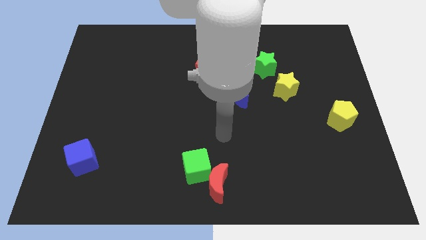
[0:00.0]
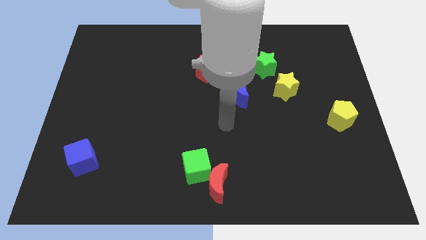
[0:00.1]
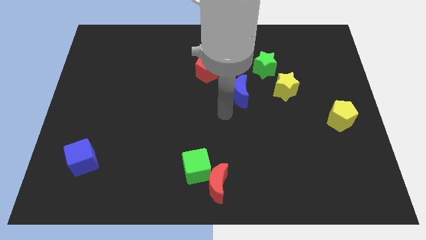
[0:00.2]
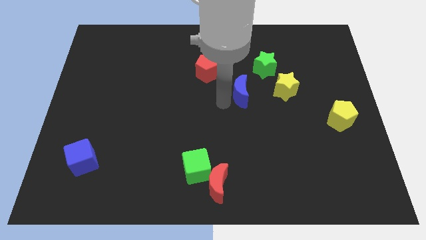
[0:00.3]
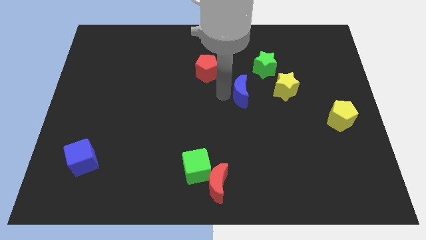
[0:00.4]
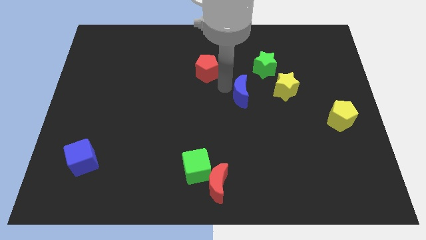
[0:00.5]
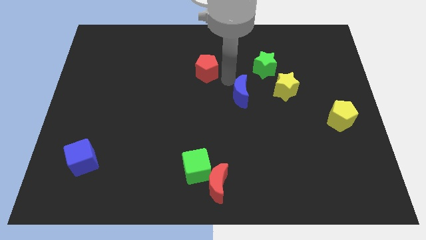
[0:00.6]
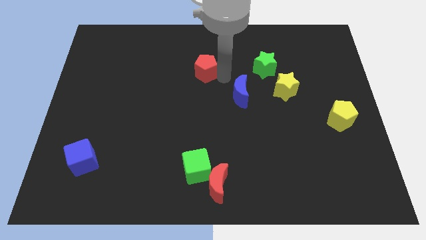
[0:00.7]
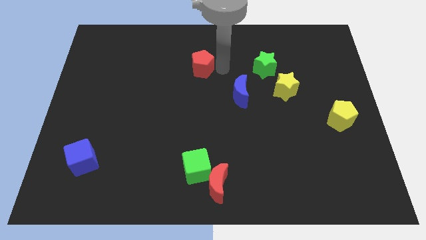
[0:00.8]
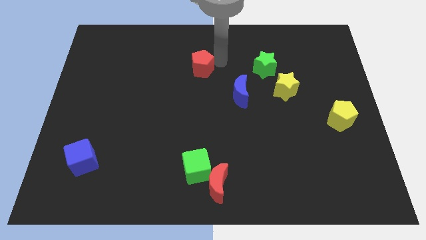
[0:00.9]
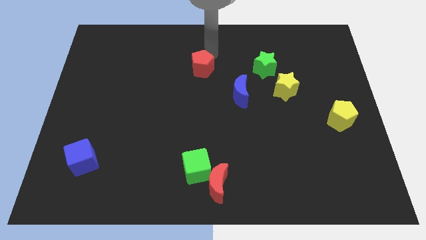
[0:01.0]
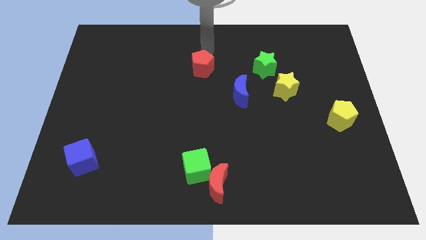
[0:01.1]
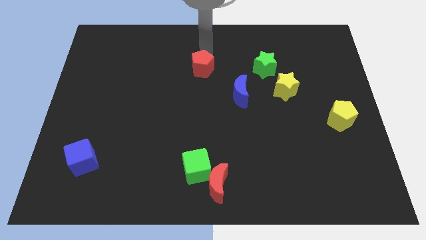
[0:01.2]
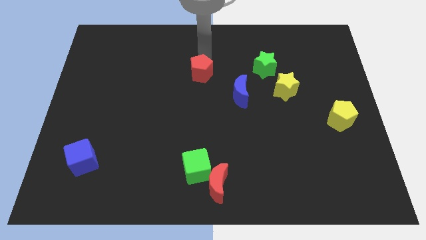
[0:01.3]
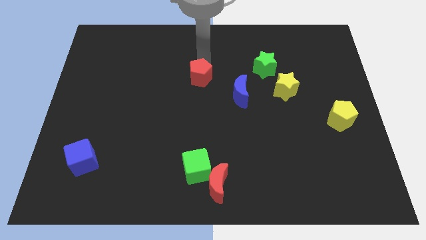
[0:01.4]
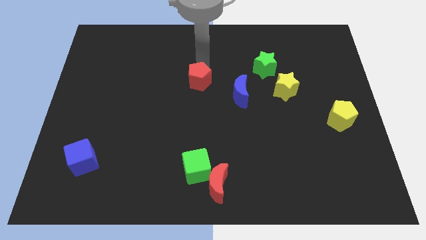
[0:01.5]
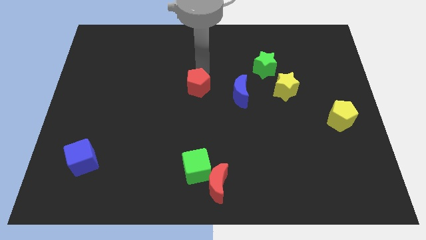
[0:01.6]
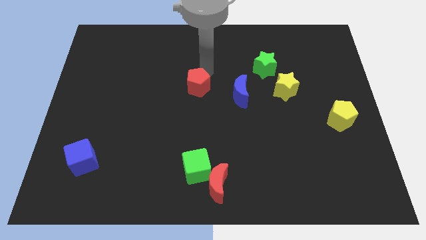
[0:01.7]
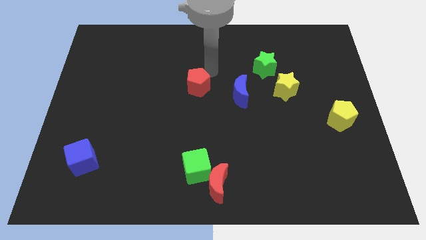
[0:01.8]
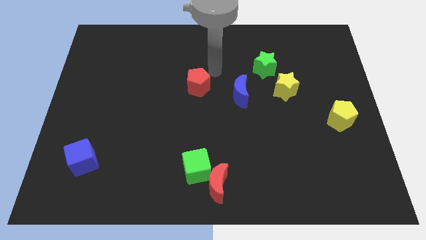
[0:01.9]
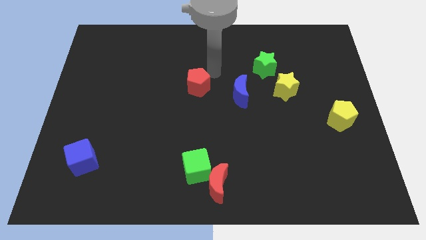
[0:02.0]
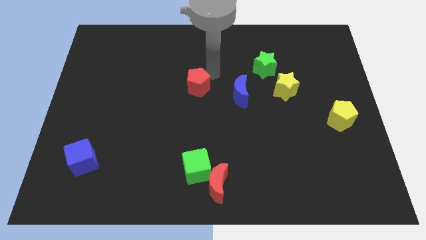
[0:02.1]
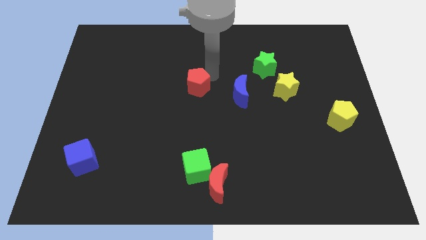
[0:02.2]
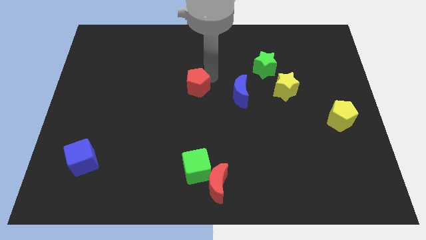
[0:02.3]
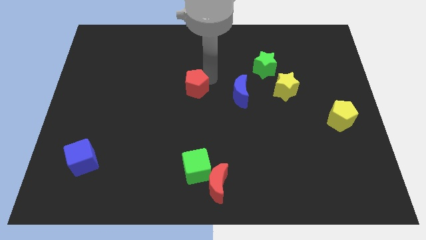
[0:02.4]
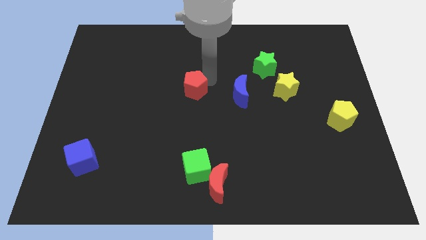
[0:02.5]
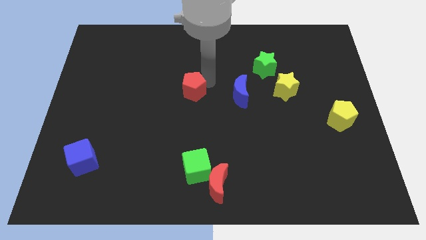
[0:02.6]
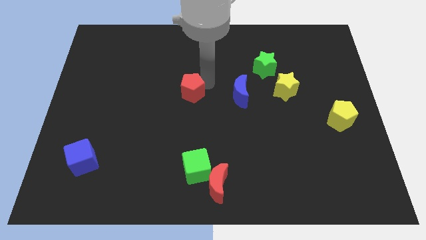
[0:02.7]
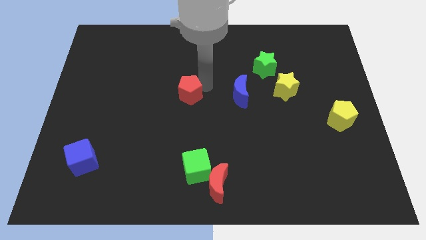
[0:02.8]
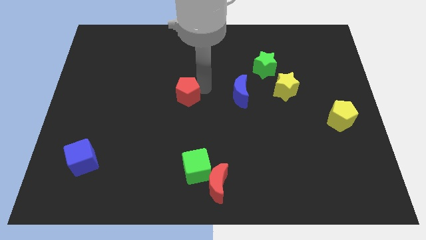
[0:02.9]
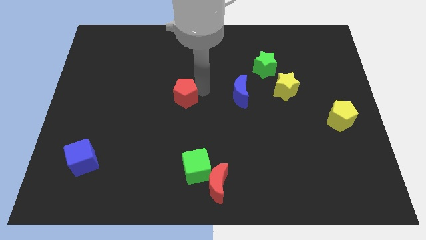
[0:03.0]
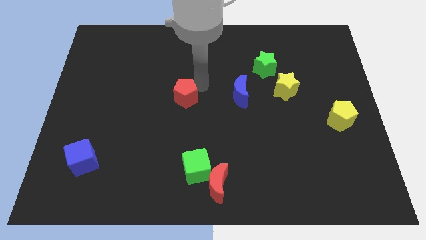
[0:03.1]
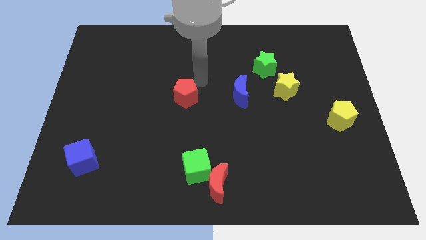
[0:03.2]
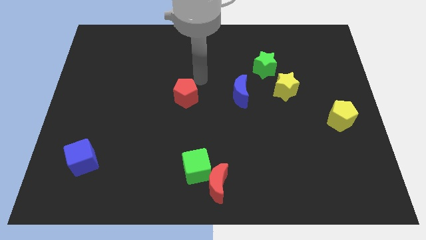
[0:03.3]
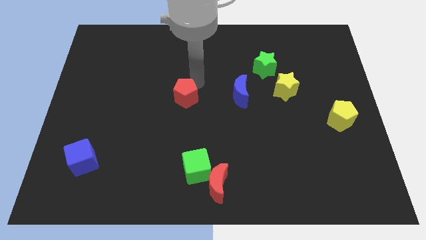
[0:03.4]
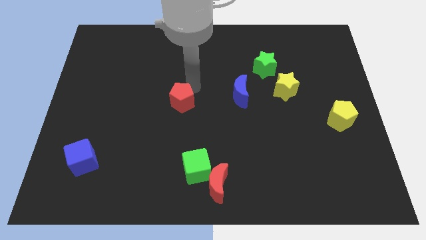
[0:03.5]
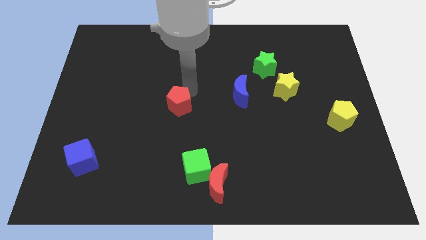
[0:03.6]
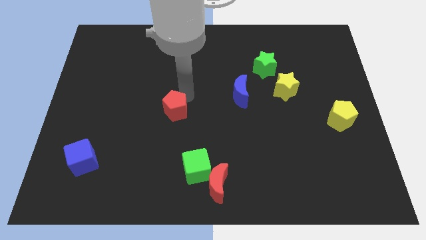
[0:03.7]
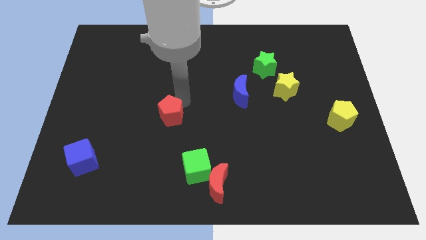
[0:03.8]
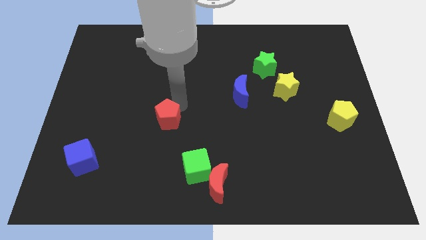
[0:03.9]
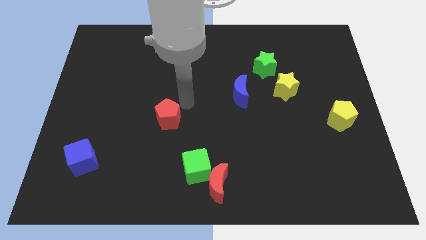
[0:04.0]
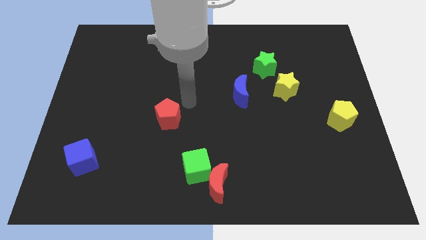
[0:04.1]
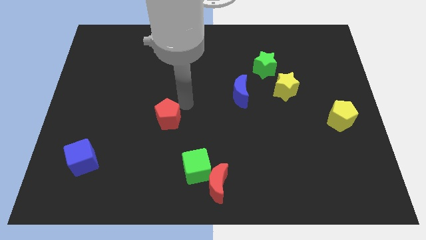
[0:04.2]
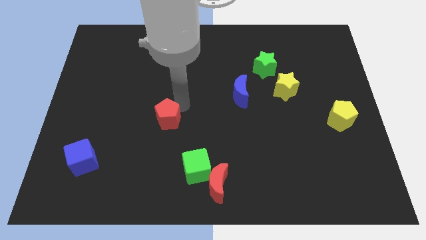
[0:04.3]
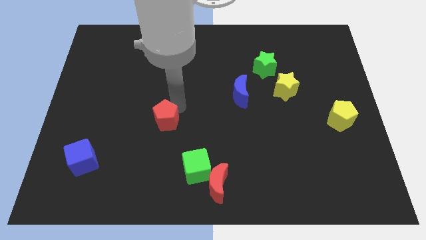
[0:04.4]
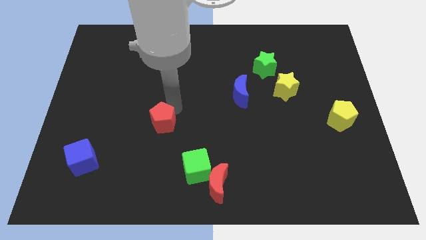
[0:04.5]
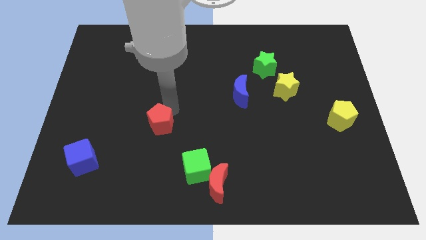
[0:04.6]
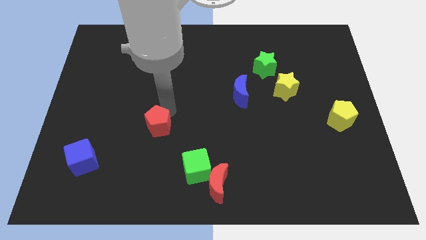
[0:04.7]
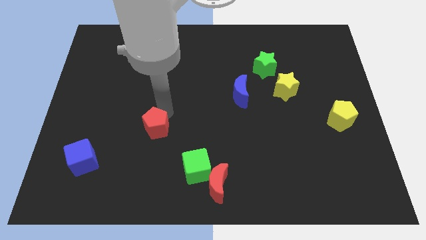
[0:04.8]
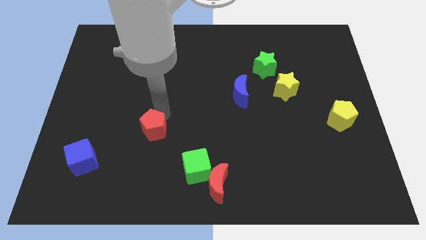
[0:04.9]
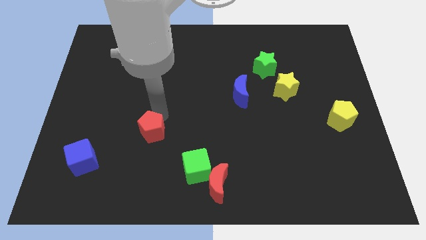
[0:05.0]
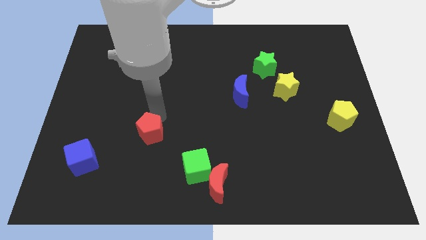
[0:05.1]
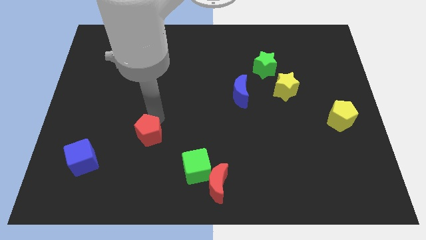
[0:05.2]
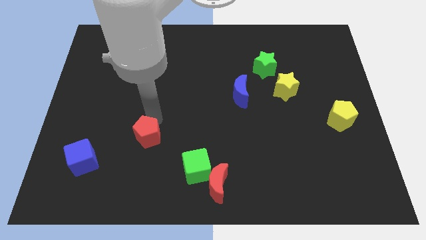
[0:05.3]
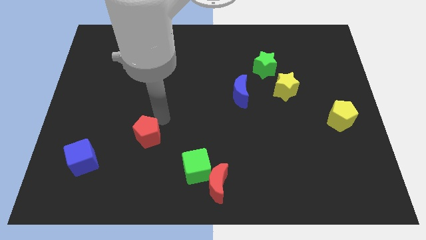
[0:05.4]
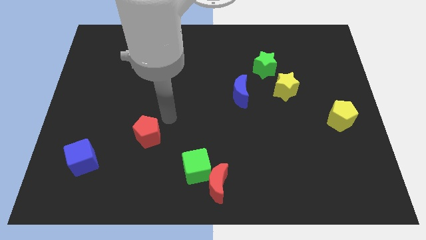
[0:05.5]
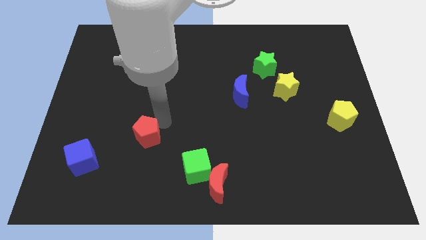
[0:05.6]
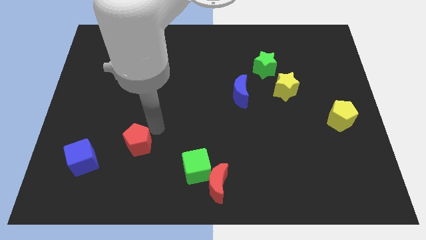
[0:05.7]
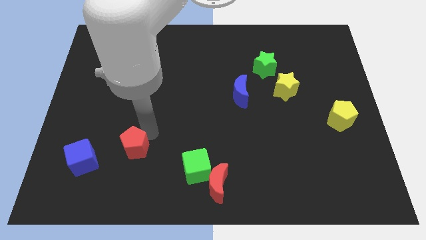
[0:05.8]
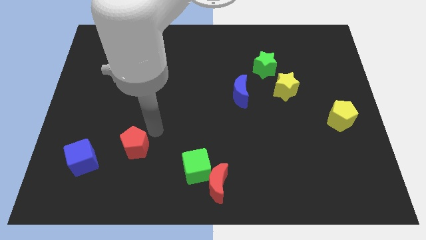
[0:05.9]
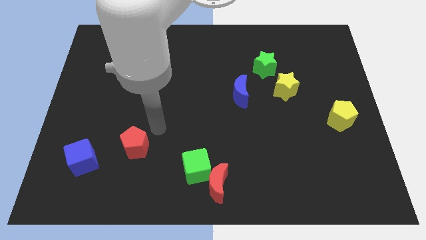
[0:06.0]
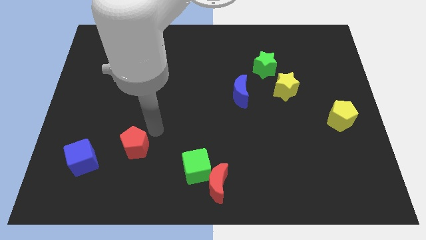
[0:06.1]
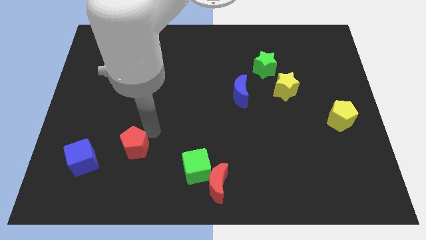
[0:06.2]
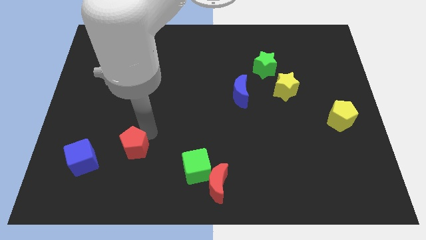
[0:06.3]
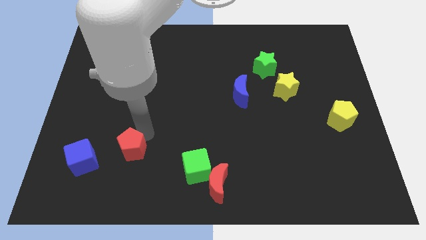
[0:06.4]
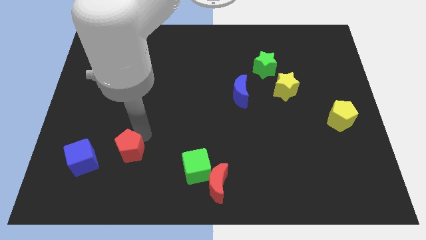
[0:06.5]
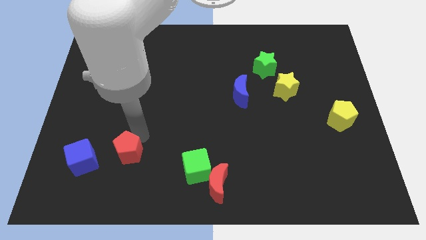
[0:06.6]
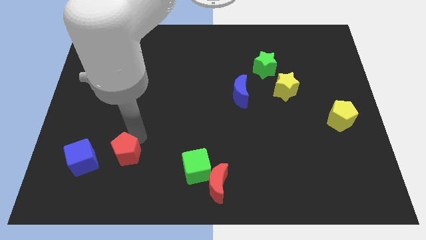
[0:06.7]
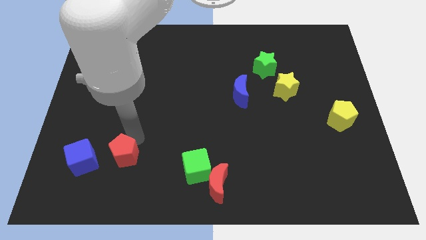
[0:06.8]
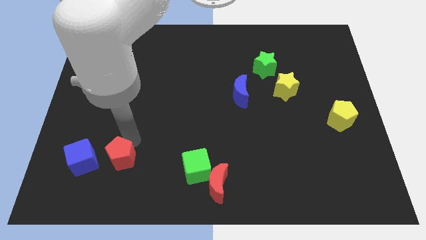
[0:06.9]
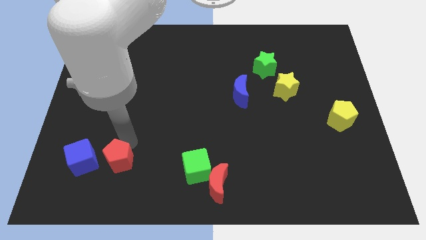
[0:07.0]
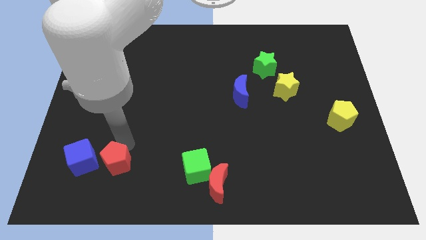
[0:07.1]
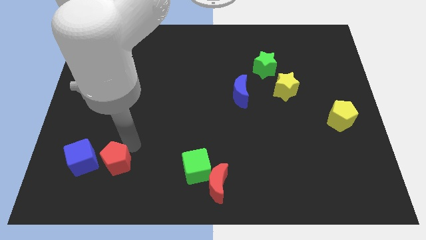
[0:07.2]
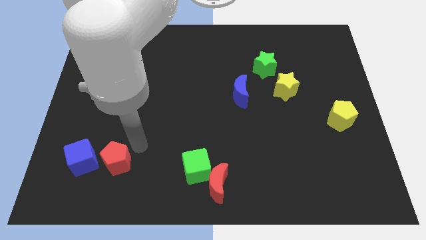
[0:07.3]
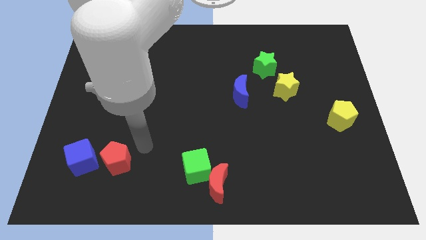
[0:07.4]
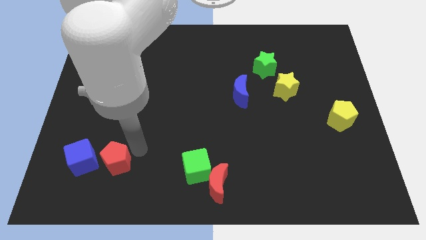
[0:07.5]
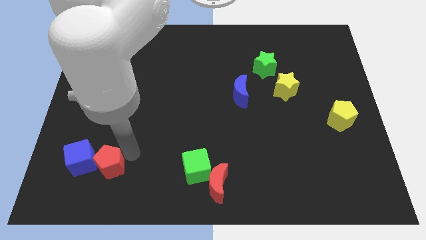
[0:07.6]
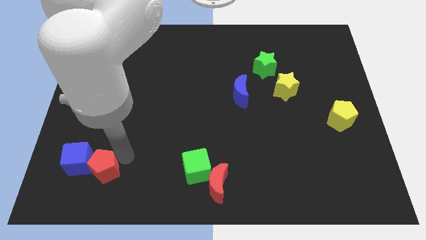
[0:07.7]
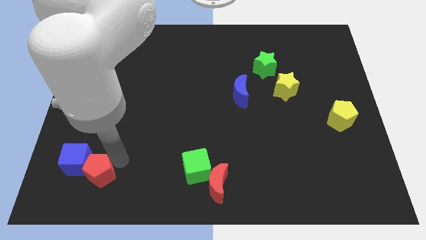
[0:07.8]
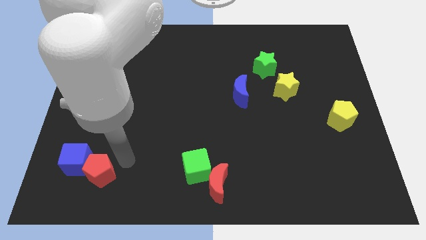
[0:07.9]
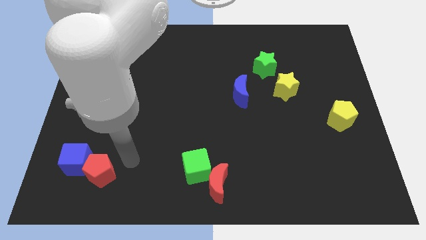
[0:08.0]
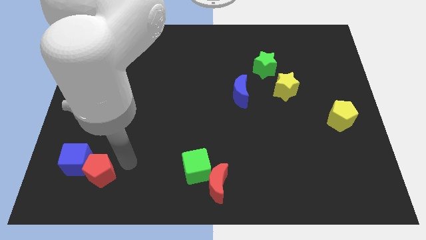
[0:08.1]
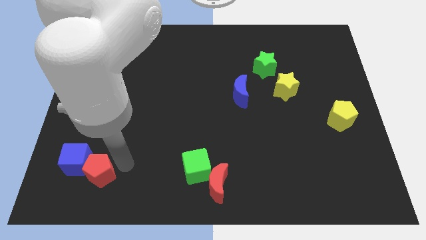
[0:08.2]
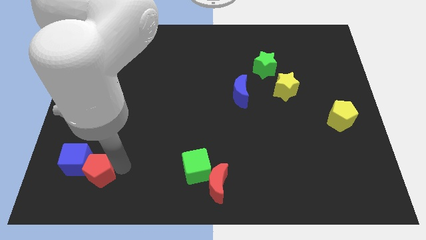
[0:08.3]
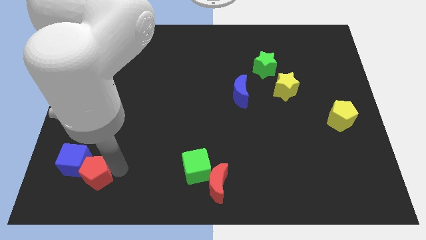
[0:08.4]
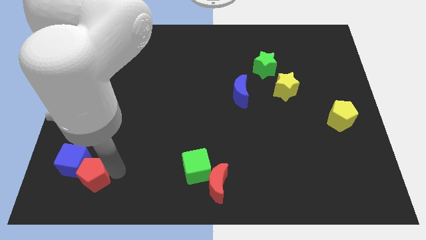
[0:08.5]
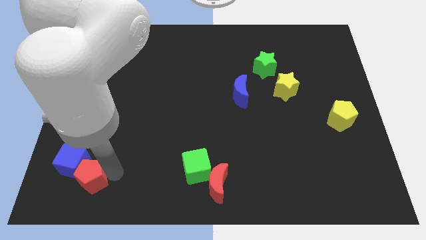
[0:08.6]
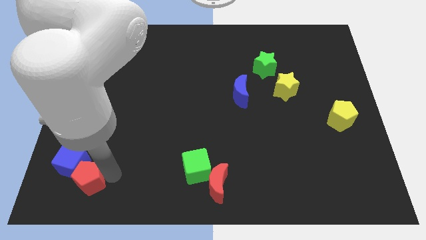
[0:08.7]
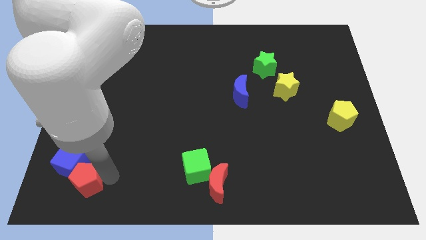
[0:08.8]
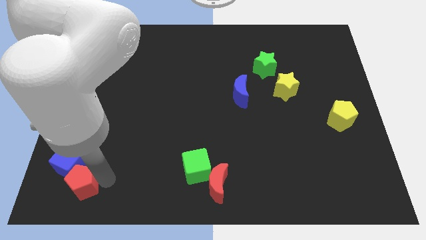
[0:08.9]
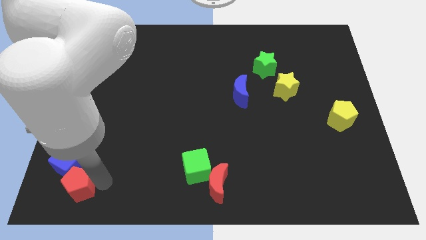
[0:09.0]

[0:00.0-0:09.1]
put the red pentagon to the bottom left corner
